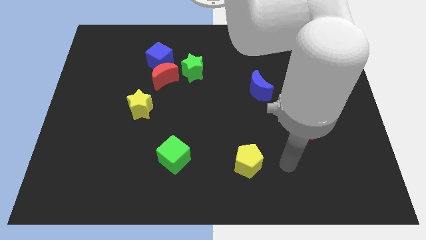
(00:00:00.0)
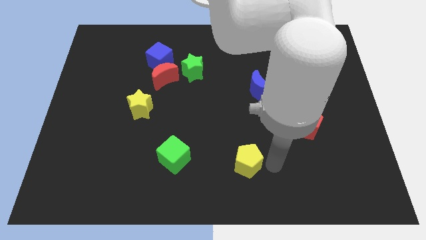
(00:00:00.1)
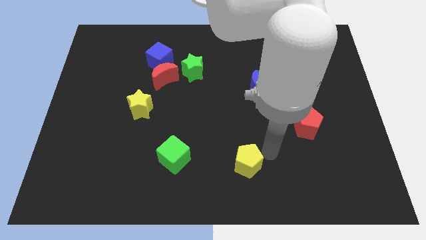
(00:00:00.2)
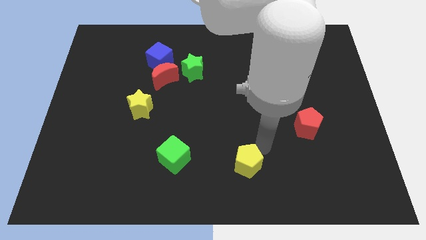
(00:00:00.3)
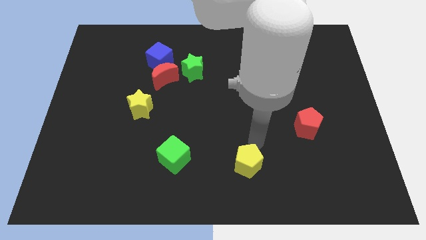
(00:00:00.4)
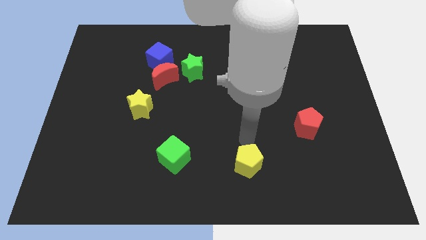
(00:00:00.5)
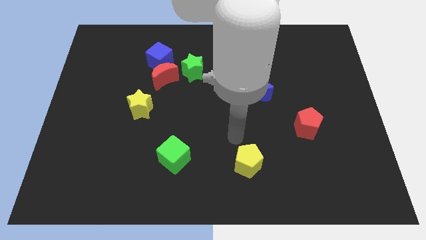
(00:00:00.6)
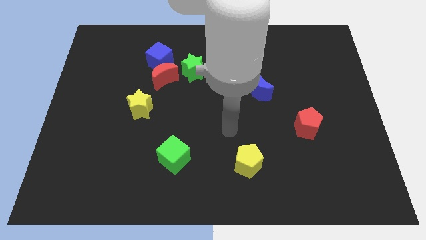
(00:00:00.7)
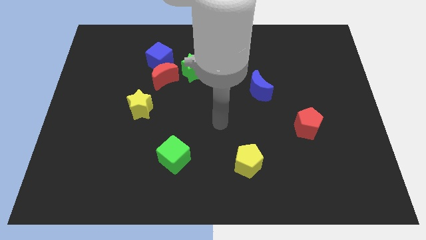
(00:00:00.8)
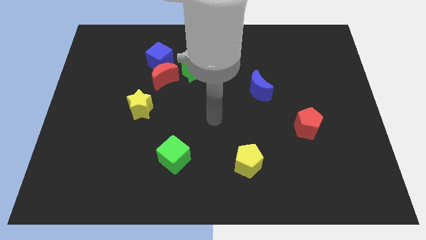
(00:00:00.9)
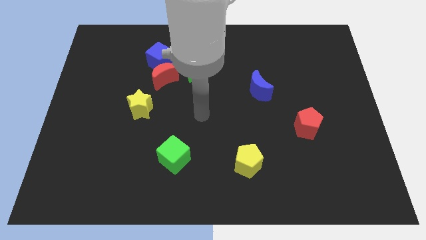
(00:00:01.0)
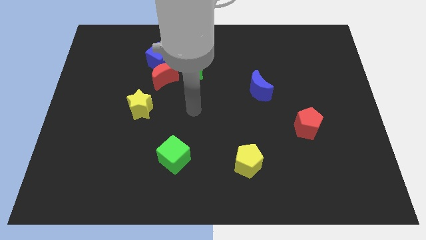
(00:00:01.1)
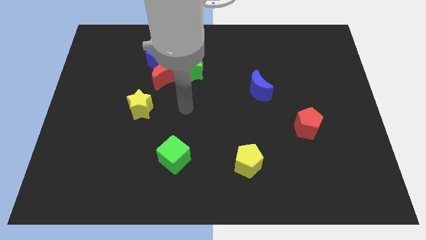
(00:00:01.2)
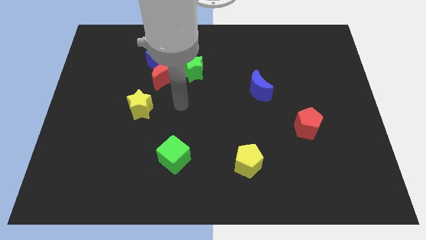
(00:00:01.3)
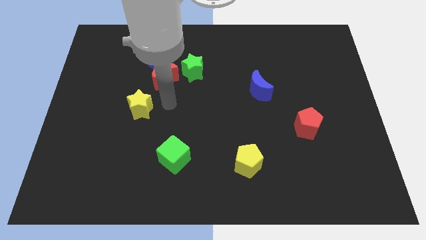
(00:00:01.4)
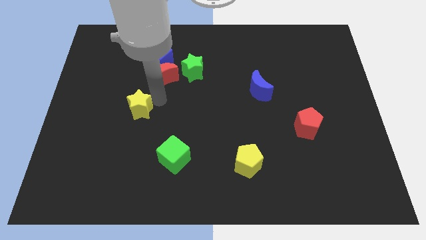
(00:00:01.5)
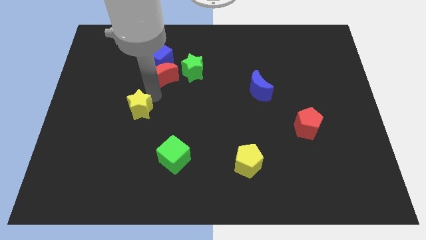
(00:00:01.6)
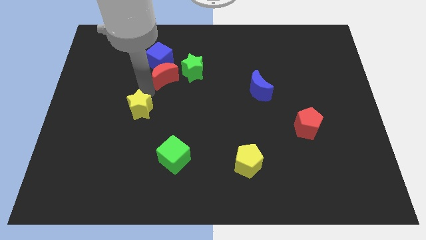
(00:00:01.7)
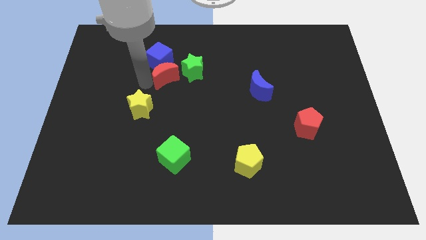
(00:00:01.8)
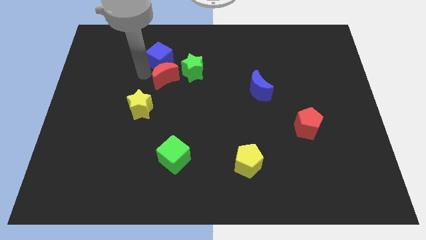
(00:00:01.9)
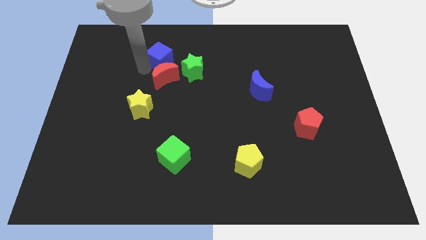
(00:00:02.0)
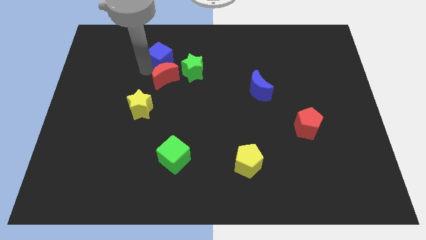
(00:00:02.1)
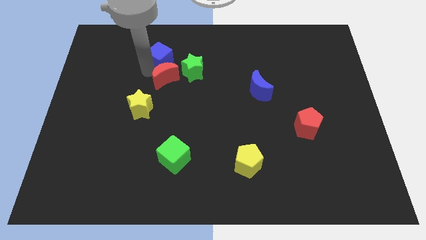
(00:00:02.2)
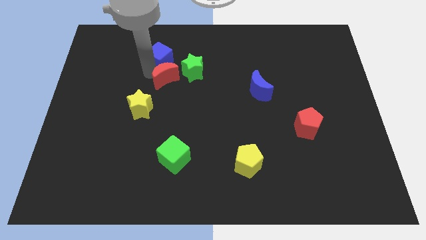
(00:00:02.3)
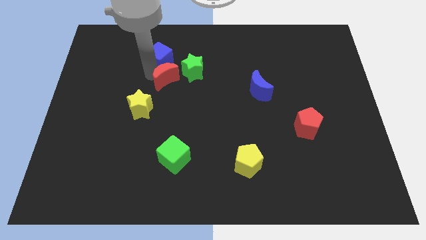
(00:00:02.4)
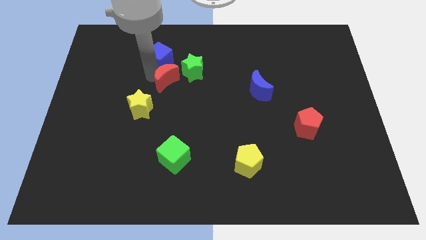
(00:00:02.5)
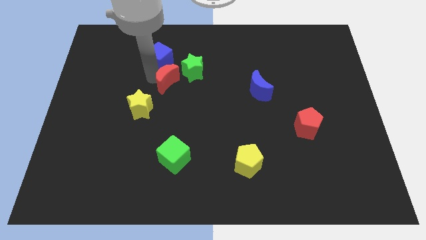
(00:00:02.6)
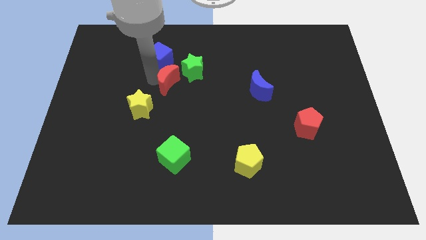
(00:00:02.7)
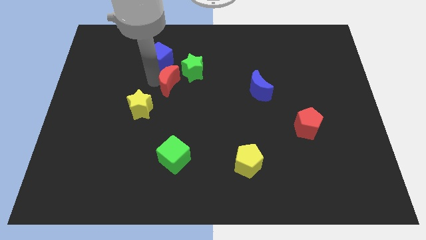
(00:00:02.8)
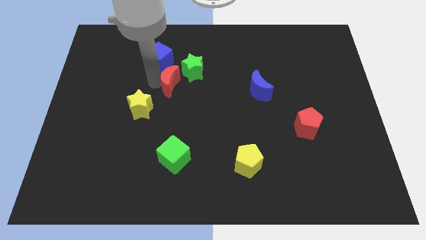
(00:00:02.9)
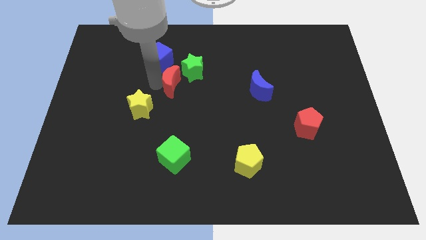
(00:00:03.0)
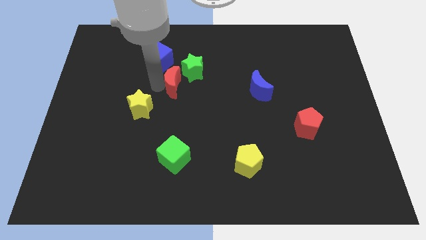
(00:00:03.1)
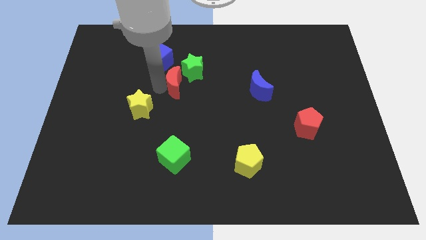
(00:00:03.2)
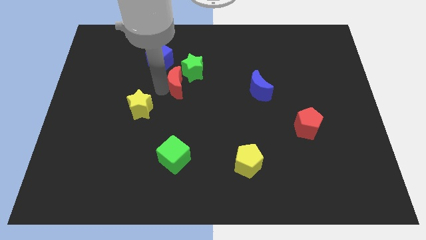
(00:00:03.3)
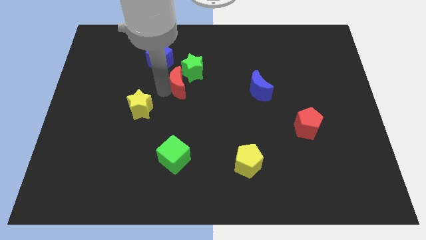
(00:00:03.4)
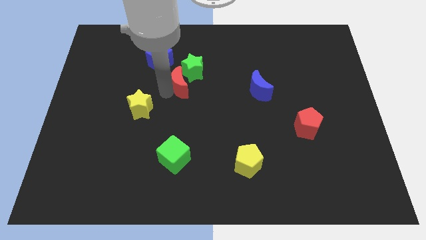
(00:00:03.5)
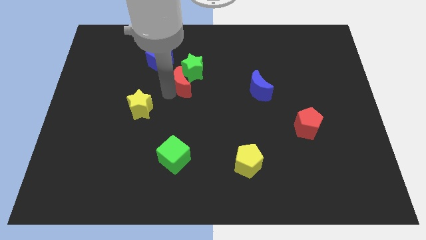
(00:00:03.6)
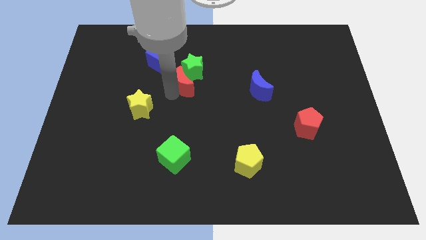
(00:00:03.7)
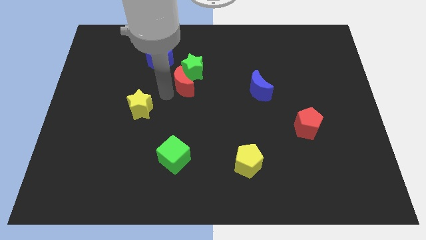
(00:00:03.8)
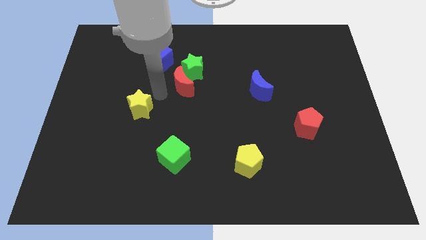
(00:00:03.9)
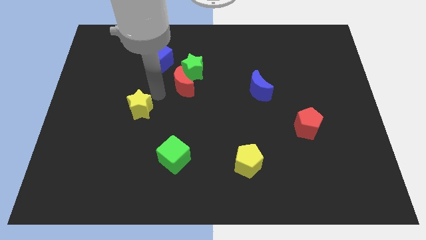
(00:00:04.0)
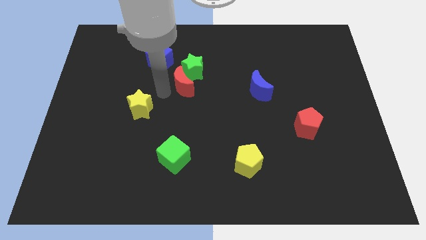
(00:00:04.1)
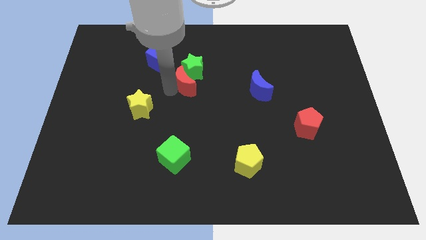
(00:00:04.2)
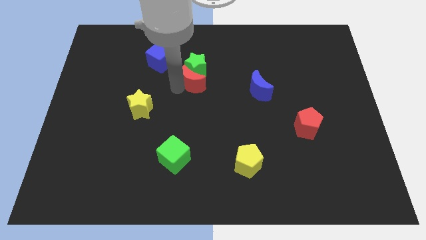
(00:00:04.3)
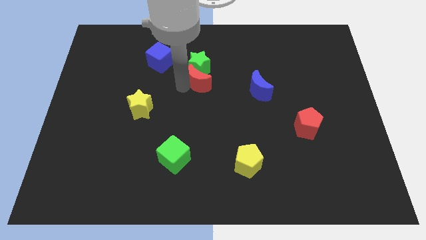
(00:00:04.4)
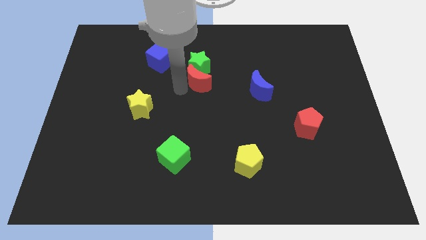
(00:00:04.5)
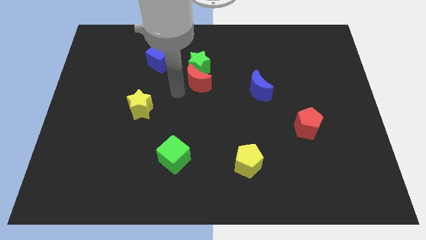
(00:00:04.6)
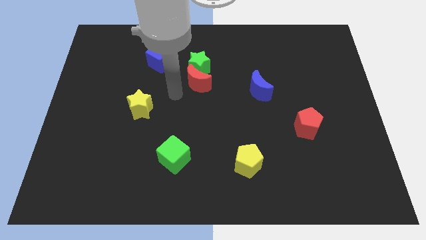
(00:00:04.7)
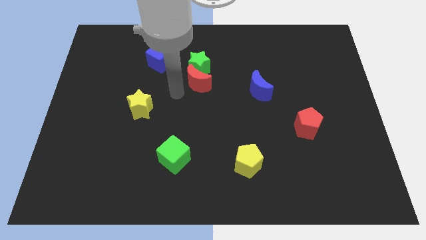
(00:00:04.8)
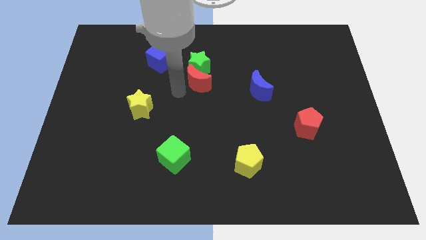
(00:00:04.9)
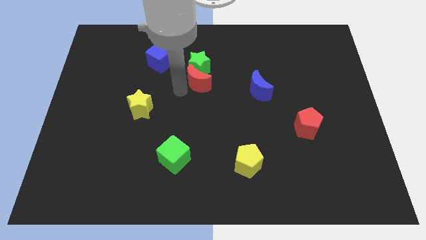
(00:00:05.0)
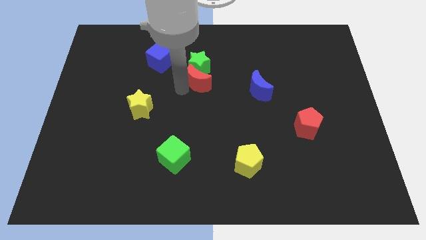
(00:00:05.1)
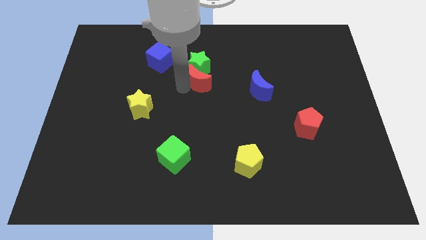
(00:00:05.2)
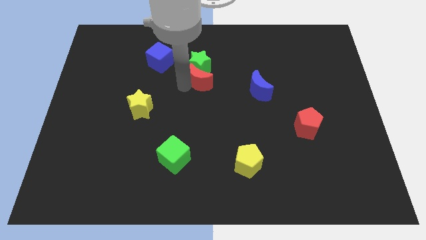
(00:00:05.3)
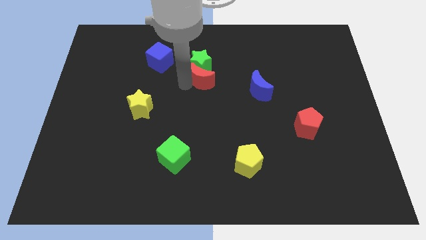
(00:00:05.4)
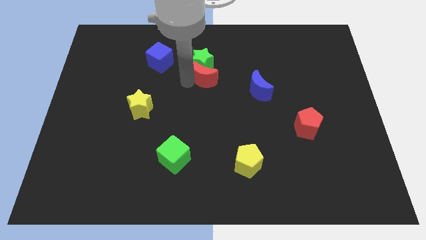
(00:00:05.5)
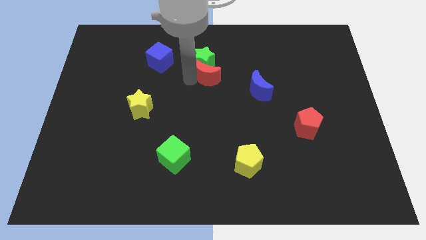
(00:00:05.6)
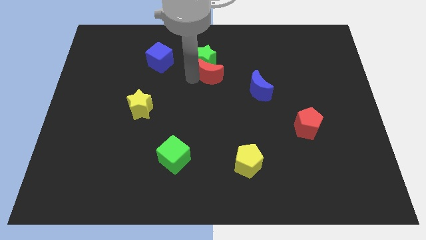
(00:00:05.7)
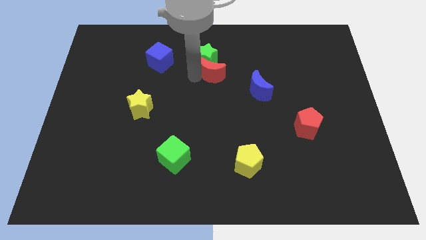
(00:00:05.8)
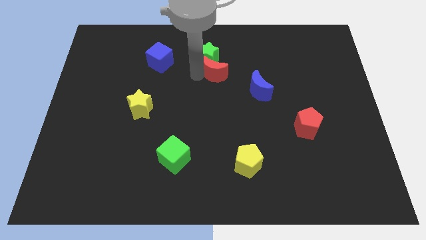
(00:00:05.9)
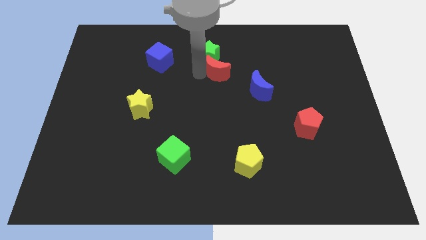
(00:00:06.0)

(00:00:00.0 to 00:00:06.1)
push the red moon diagonally up and to the left of the blue moon

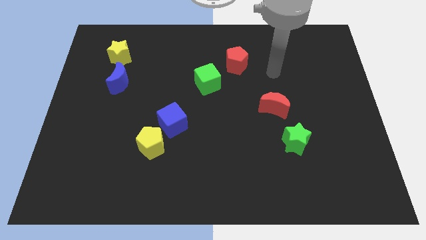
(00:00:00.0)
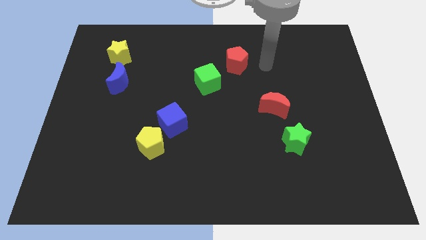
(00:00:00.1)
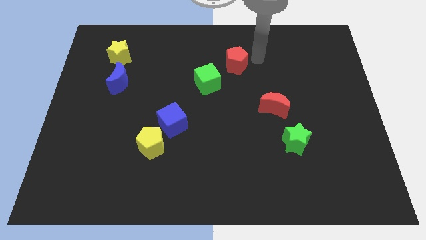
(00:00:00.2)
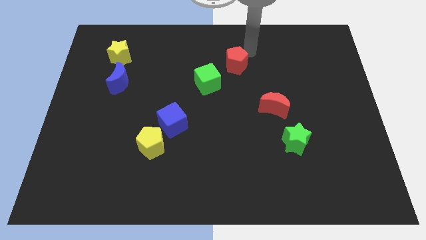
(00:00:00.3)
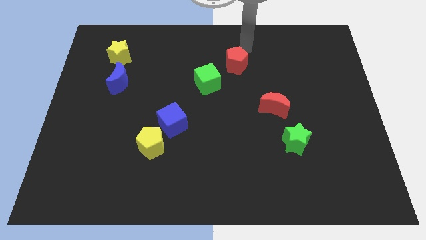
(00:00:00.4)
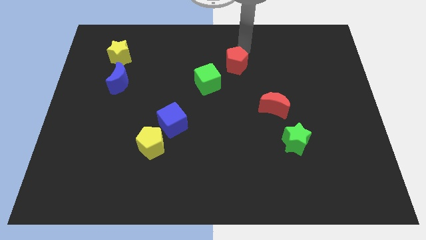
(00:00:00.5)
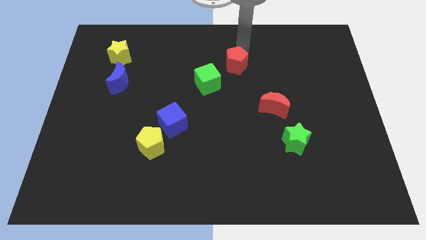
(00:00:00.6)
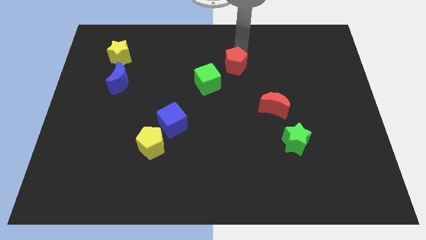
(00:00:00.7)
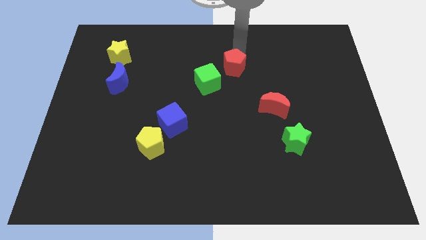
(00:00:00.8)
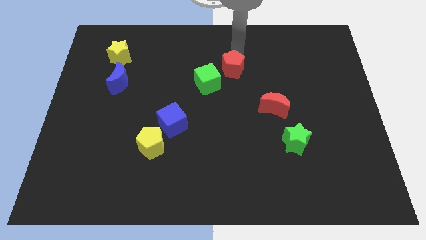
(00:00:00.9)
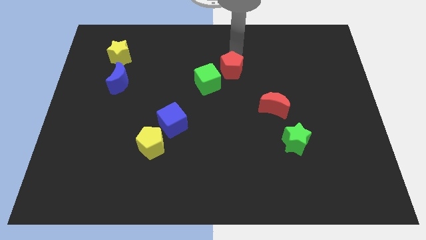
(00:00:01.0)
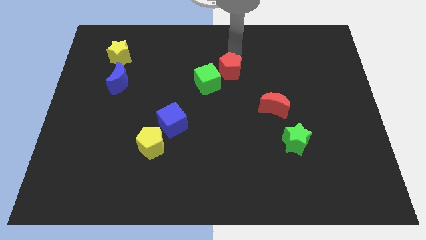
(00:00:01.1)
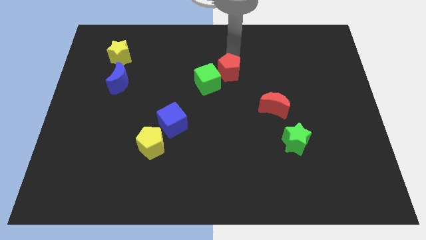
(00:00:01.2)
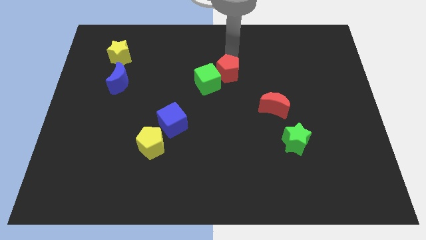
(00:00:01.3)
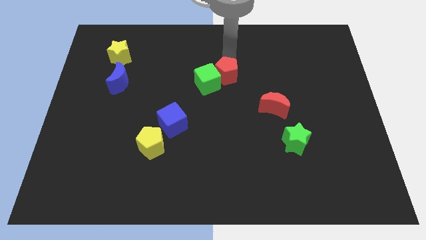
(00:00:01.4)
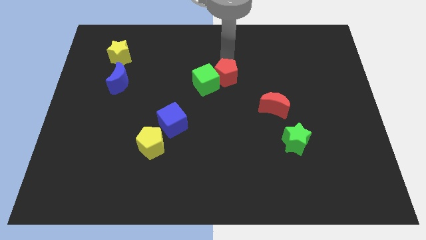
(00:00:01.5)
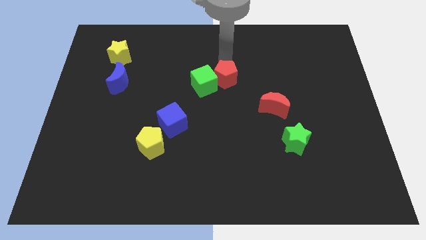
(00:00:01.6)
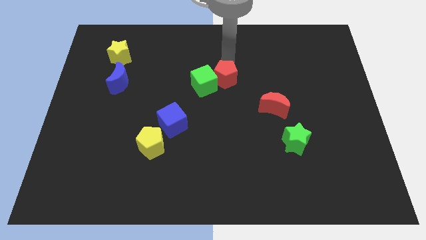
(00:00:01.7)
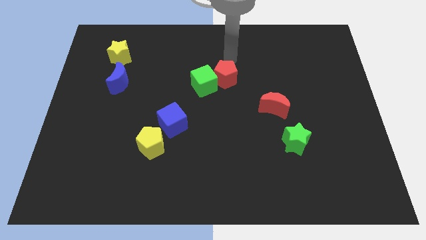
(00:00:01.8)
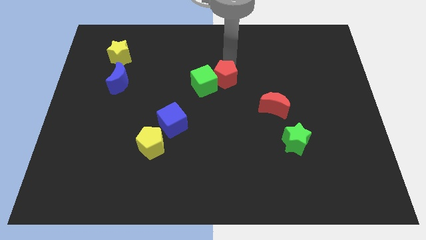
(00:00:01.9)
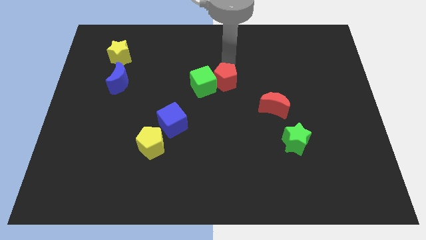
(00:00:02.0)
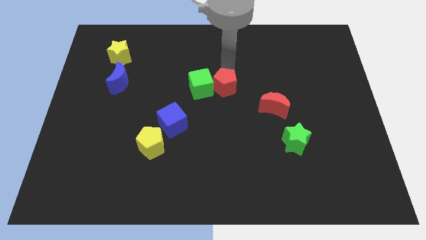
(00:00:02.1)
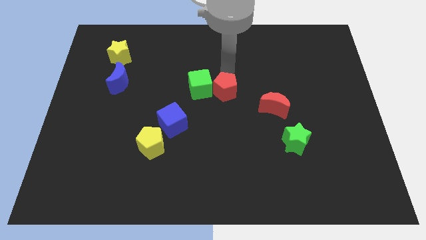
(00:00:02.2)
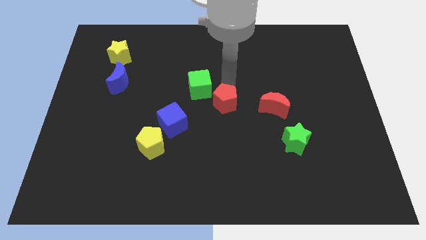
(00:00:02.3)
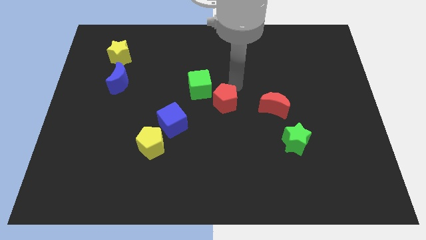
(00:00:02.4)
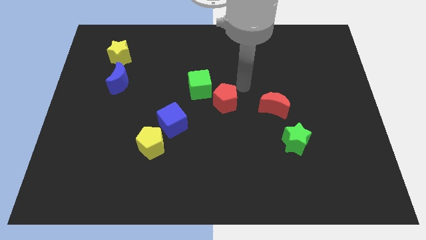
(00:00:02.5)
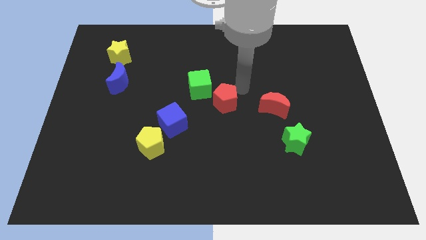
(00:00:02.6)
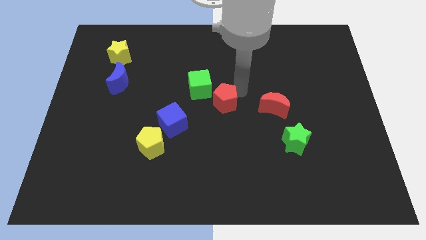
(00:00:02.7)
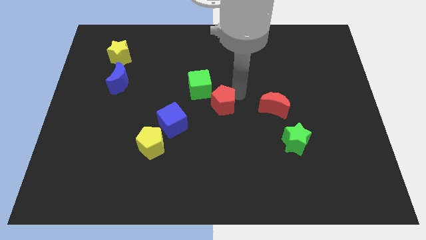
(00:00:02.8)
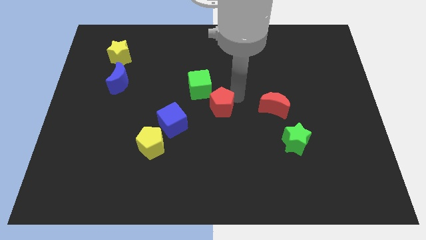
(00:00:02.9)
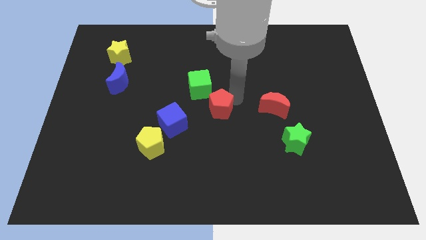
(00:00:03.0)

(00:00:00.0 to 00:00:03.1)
push the red pentagon to the bottom side of the green cube
